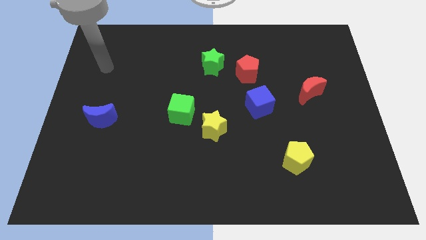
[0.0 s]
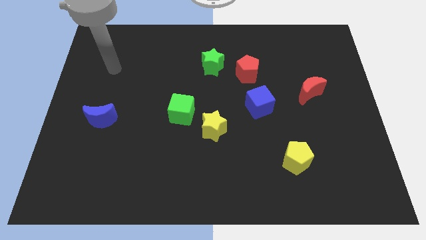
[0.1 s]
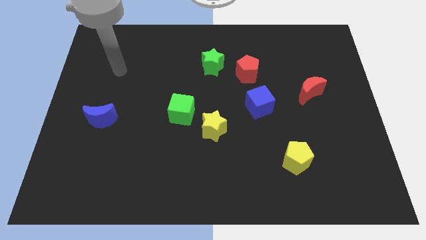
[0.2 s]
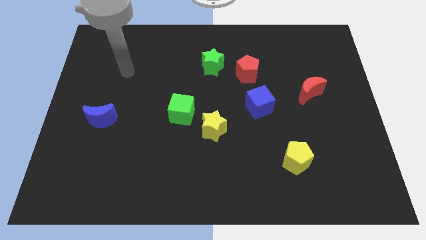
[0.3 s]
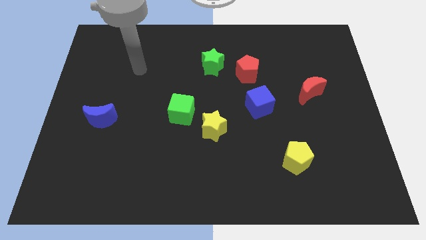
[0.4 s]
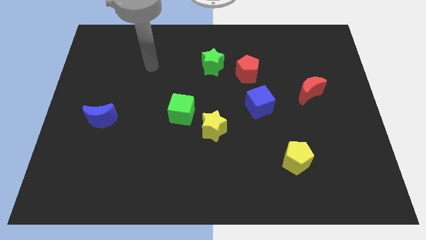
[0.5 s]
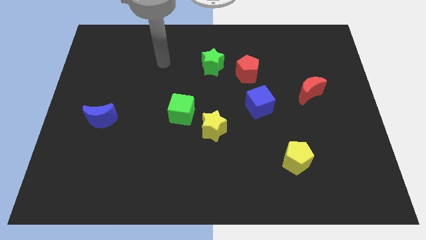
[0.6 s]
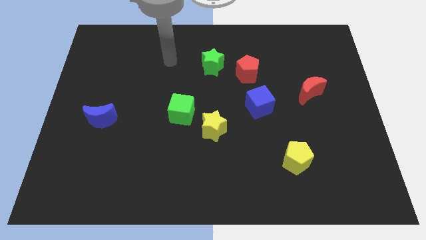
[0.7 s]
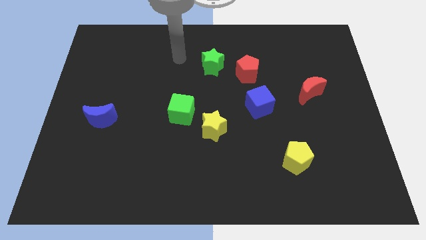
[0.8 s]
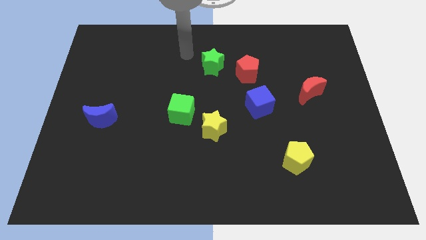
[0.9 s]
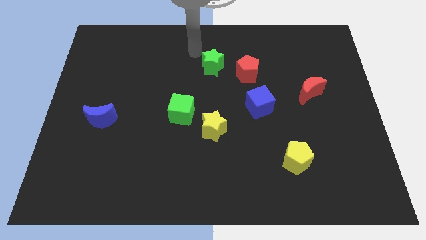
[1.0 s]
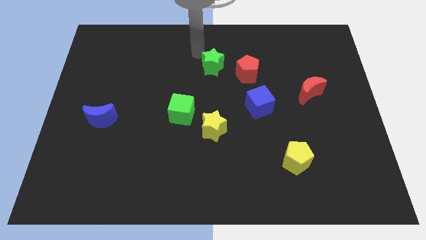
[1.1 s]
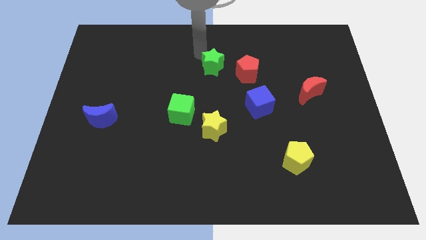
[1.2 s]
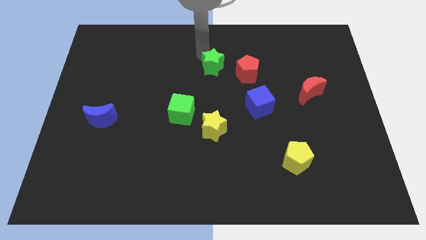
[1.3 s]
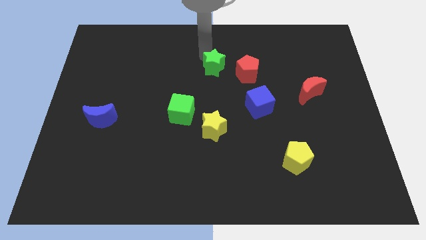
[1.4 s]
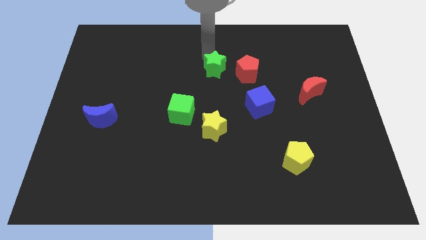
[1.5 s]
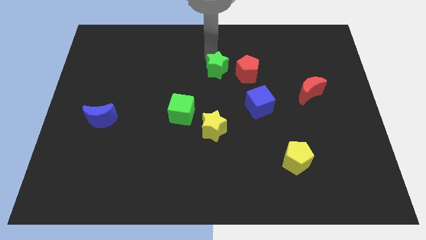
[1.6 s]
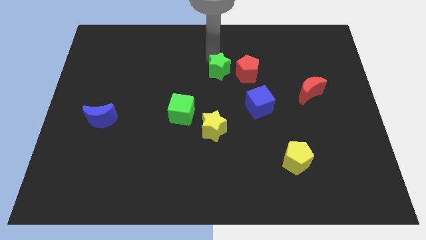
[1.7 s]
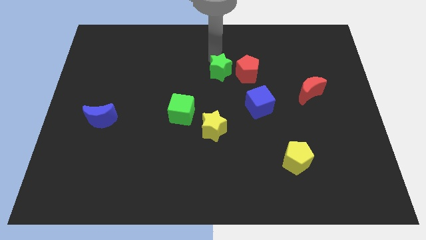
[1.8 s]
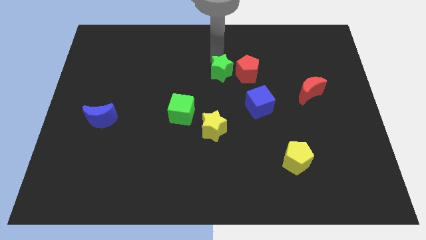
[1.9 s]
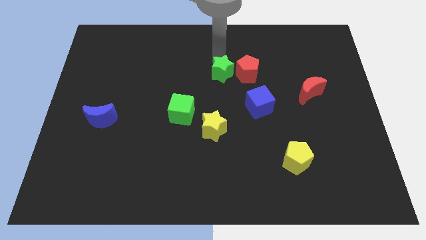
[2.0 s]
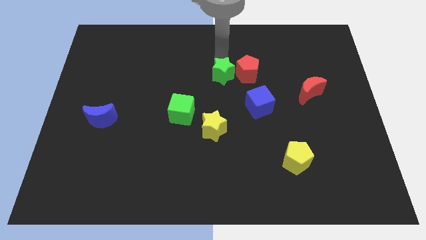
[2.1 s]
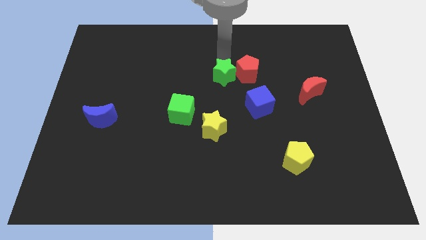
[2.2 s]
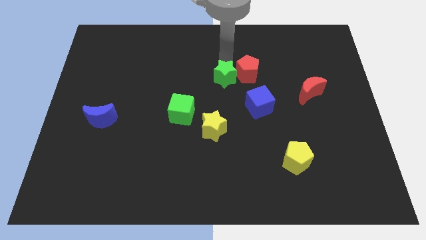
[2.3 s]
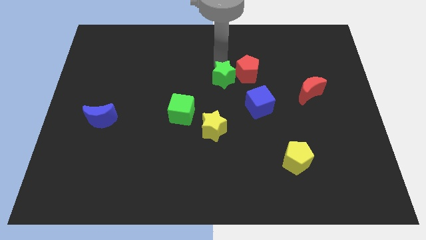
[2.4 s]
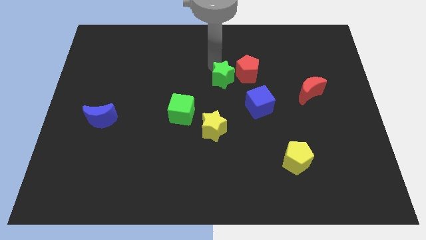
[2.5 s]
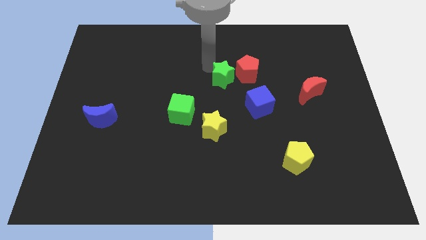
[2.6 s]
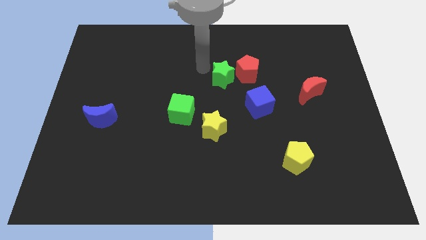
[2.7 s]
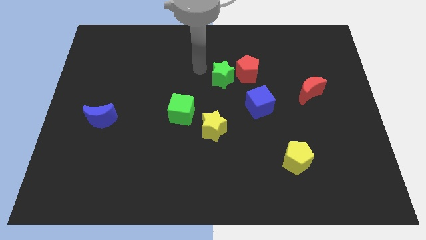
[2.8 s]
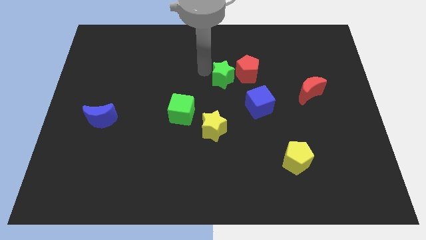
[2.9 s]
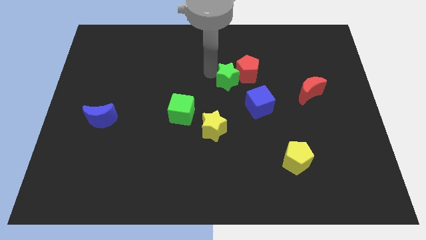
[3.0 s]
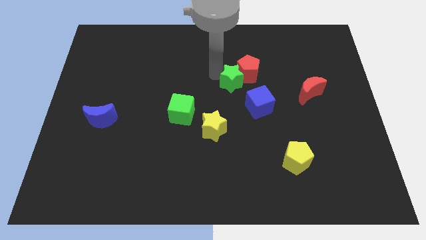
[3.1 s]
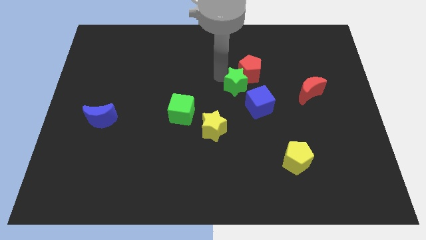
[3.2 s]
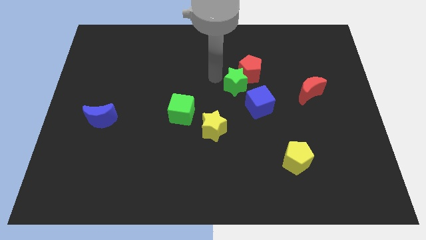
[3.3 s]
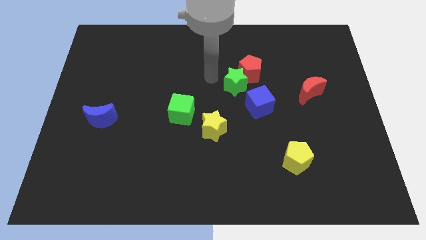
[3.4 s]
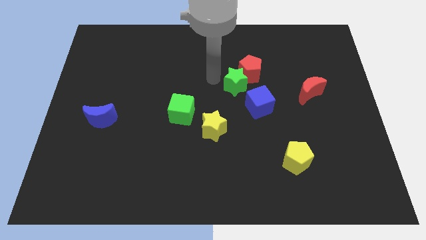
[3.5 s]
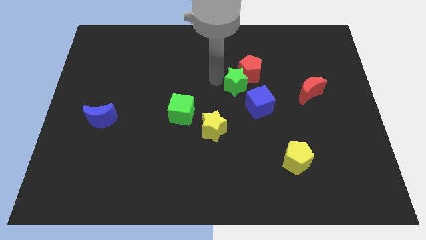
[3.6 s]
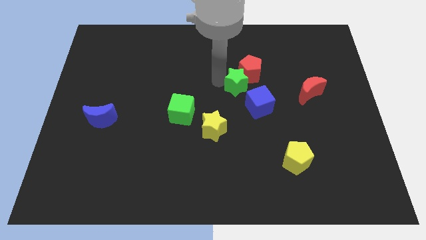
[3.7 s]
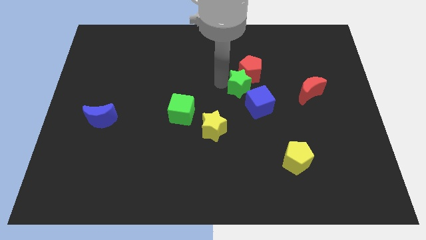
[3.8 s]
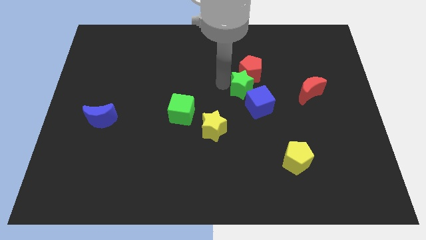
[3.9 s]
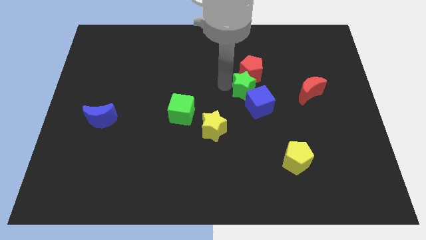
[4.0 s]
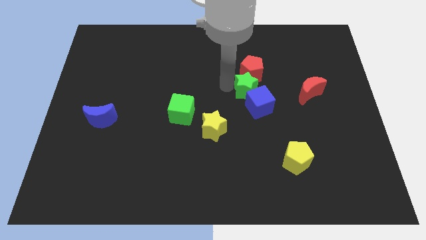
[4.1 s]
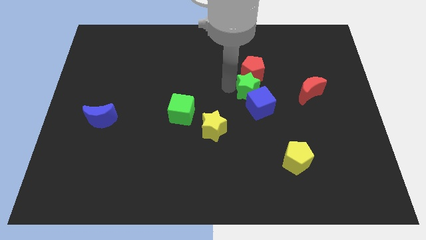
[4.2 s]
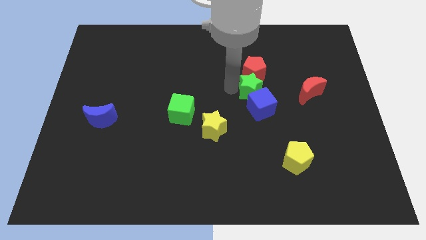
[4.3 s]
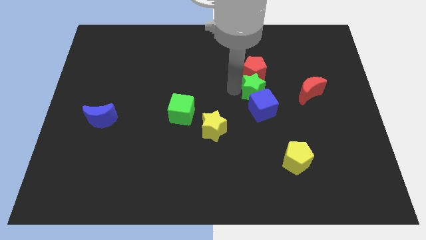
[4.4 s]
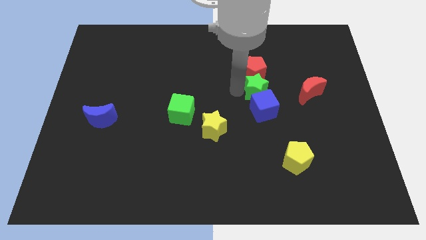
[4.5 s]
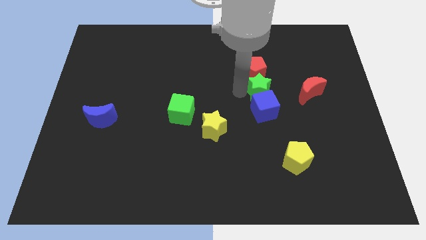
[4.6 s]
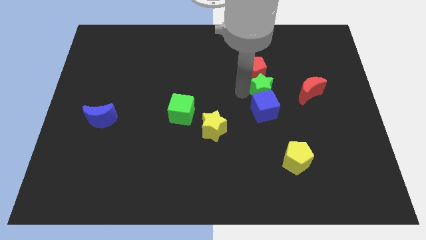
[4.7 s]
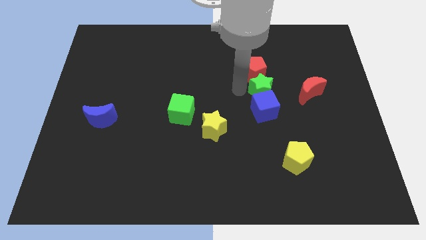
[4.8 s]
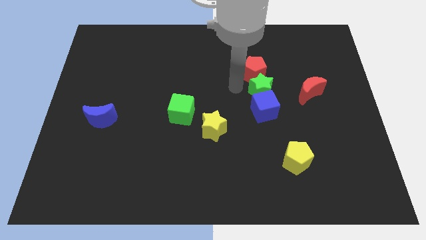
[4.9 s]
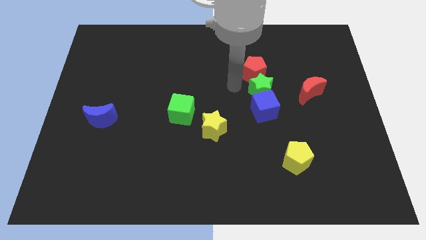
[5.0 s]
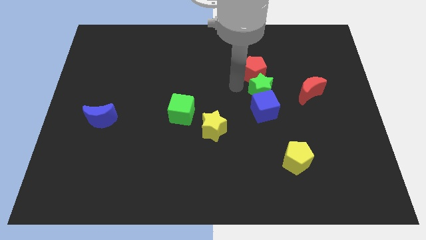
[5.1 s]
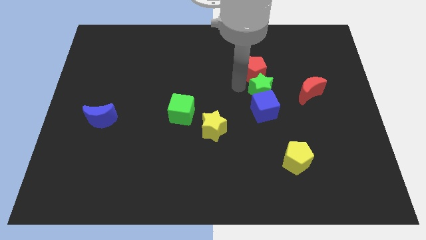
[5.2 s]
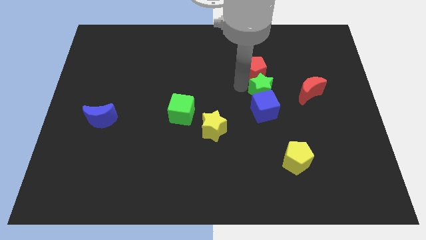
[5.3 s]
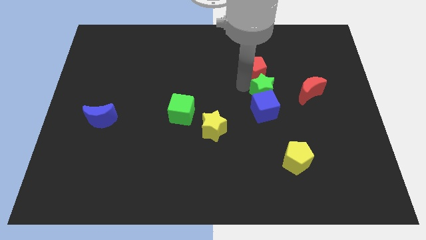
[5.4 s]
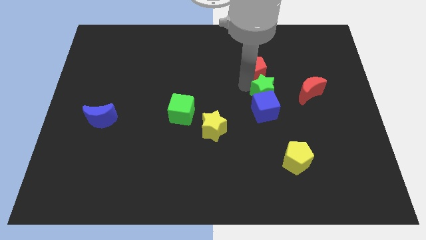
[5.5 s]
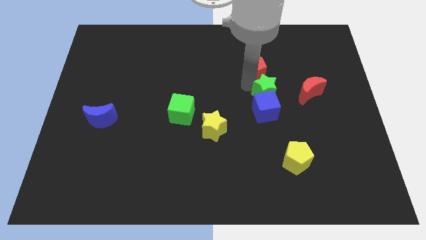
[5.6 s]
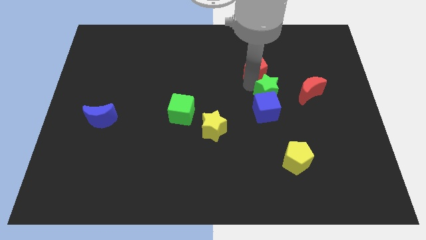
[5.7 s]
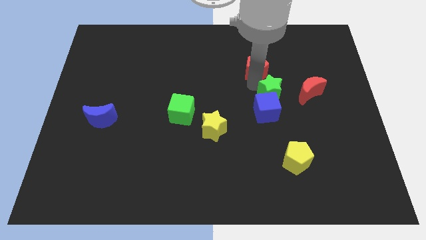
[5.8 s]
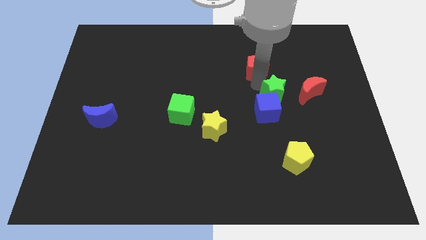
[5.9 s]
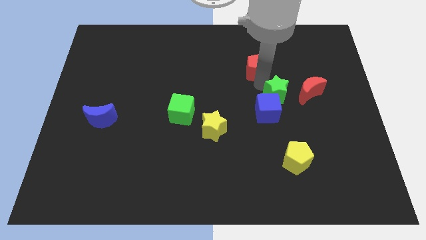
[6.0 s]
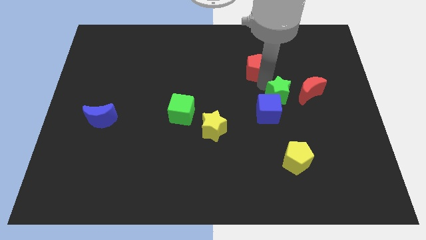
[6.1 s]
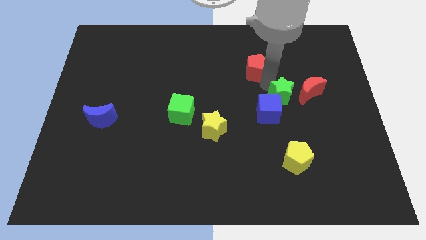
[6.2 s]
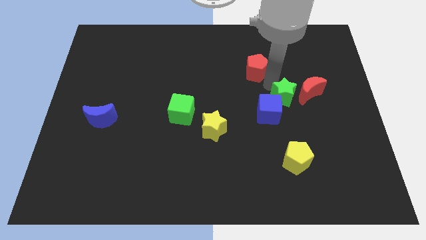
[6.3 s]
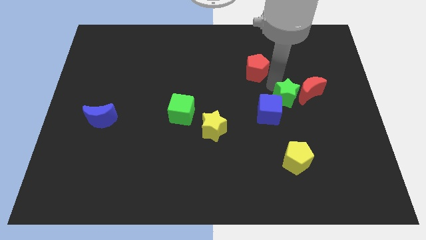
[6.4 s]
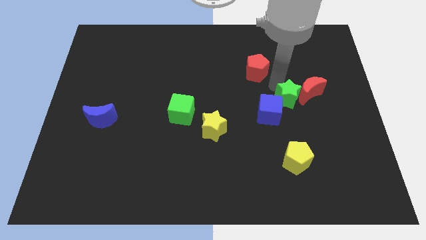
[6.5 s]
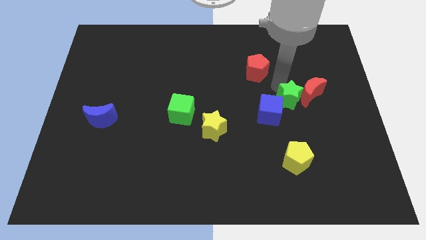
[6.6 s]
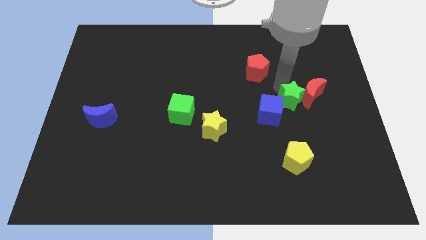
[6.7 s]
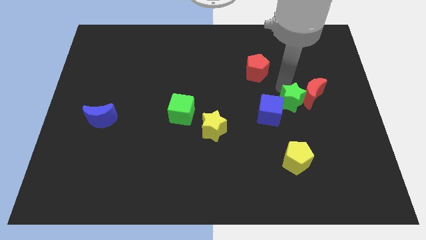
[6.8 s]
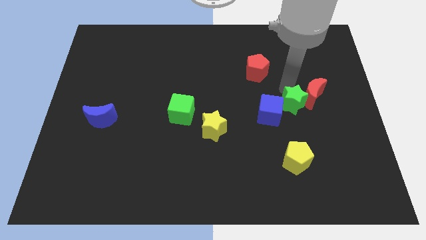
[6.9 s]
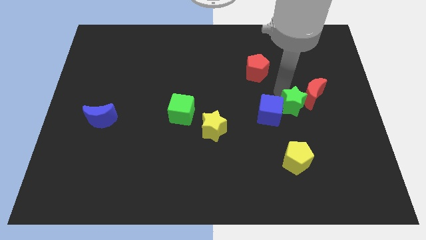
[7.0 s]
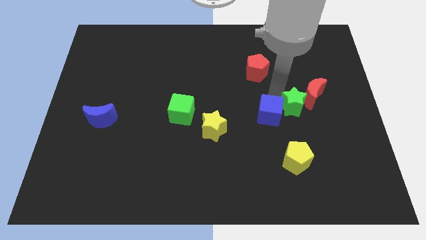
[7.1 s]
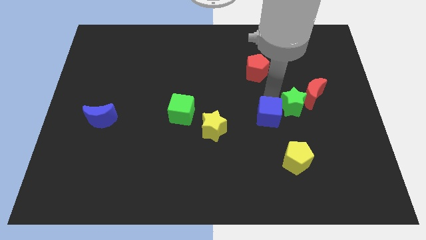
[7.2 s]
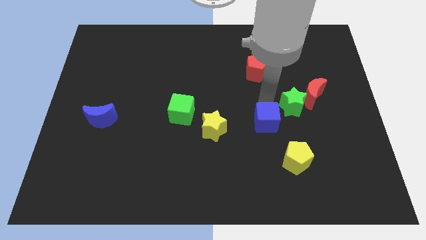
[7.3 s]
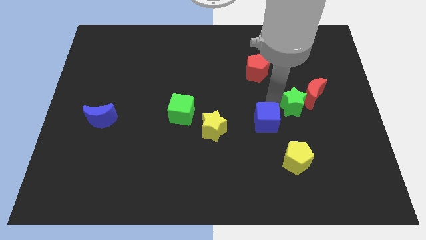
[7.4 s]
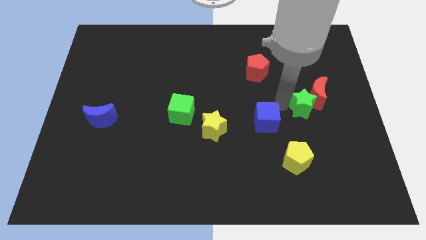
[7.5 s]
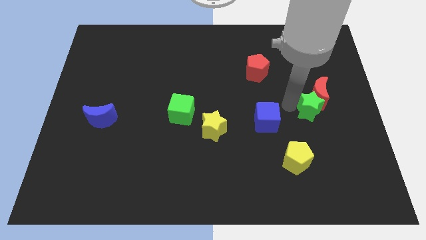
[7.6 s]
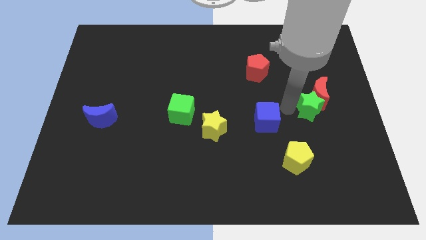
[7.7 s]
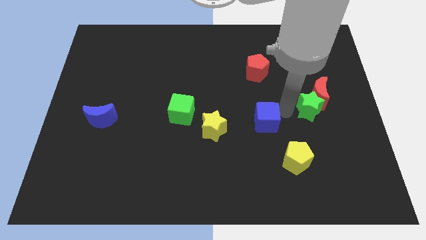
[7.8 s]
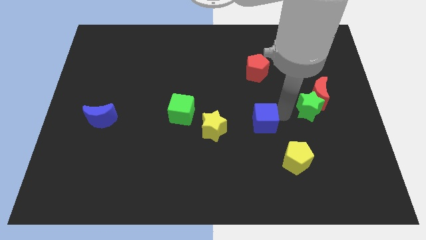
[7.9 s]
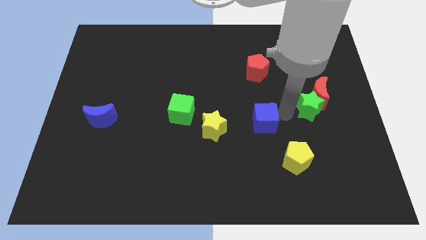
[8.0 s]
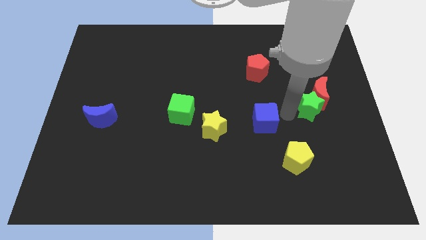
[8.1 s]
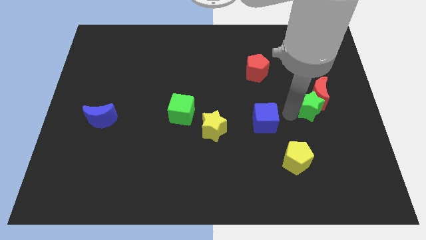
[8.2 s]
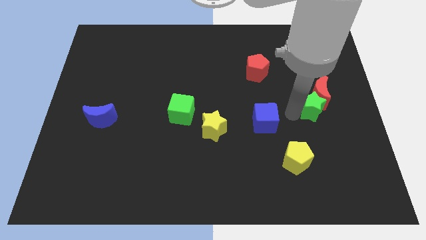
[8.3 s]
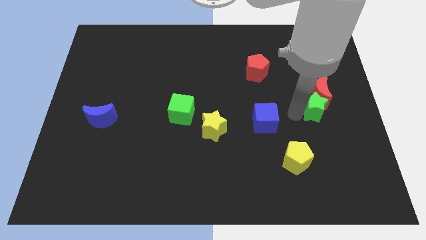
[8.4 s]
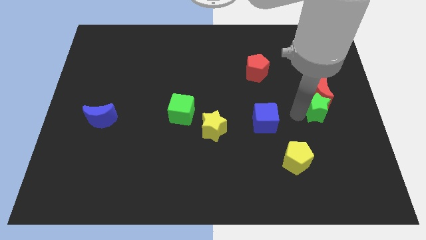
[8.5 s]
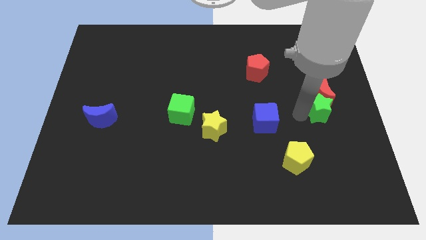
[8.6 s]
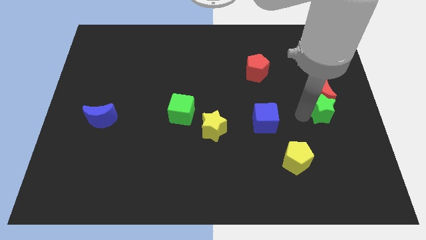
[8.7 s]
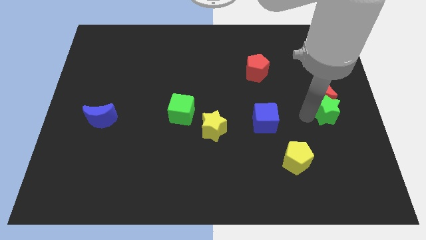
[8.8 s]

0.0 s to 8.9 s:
push the green star to the right side of the board
